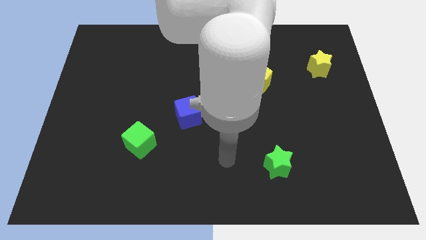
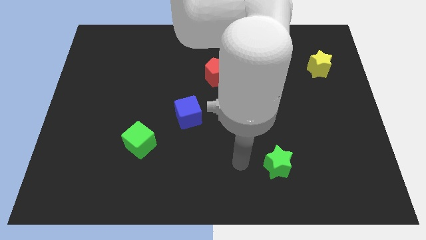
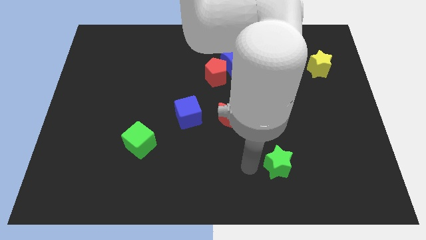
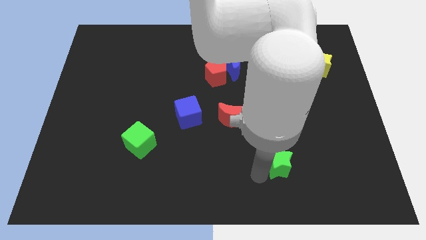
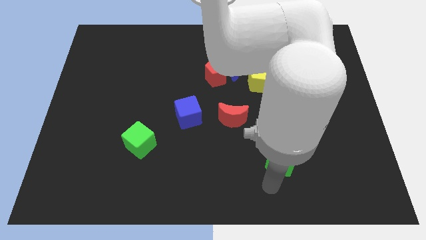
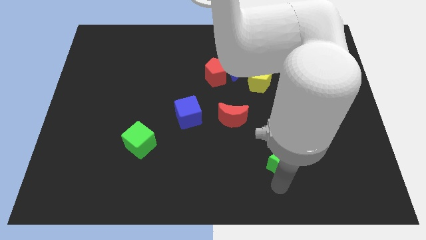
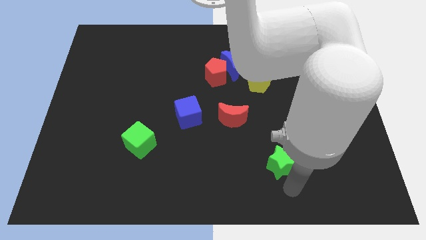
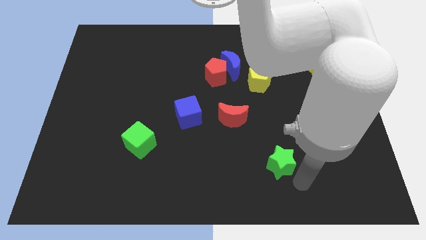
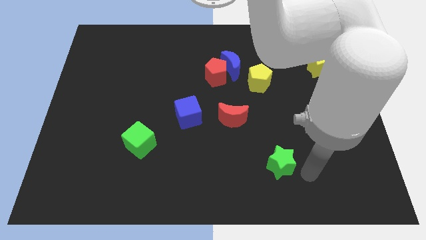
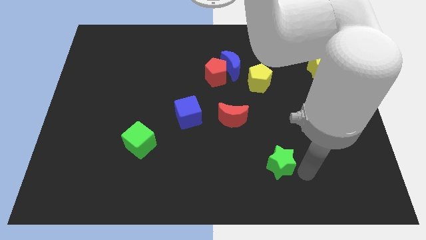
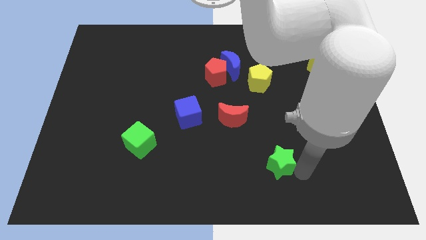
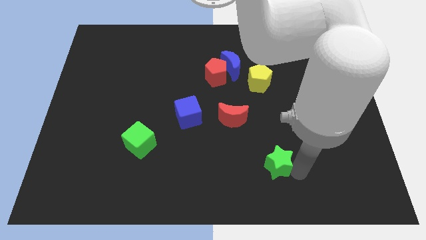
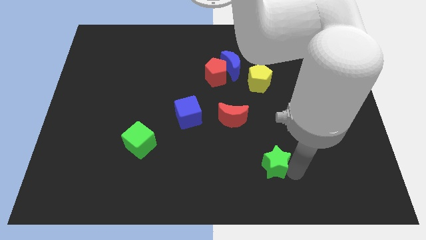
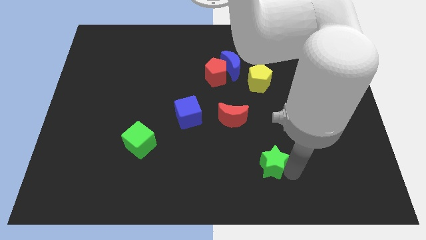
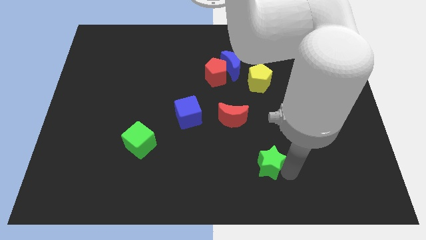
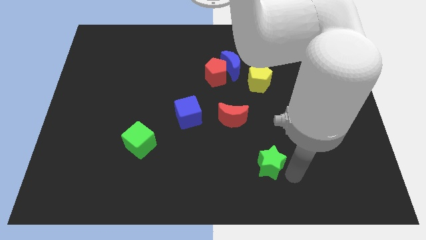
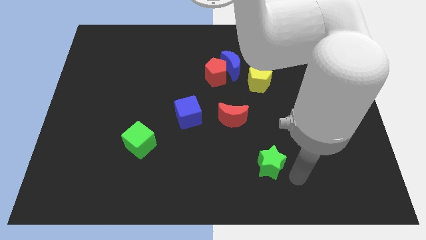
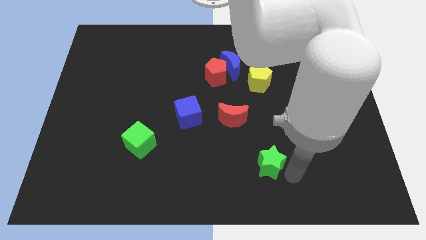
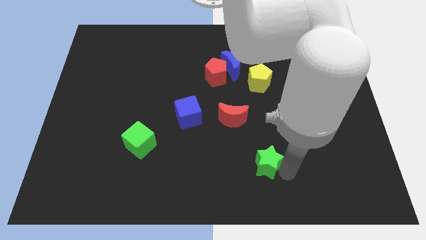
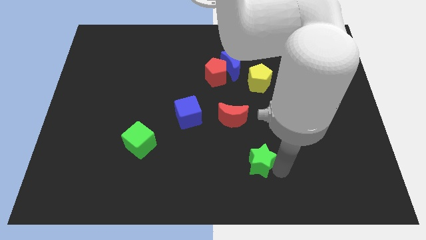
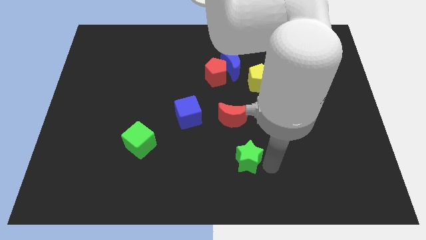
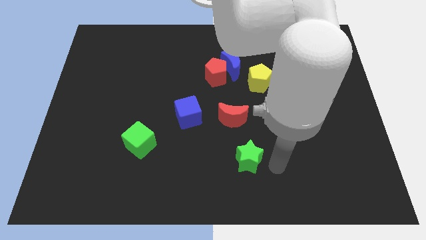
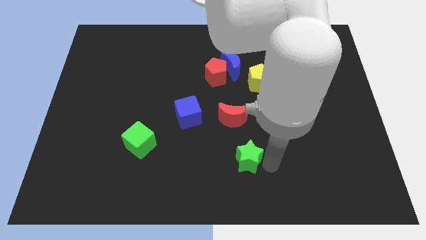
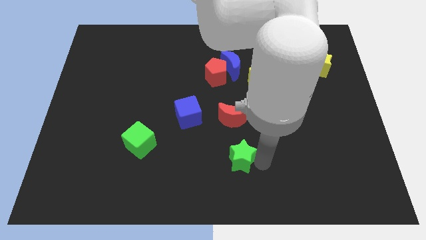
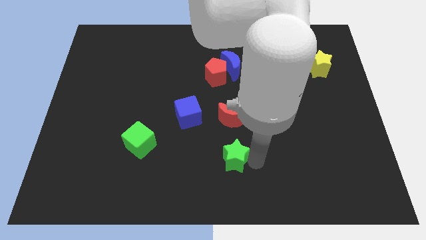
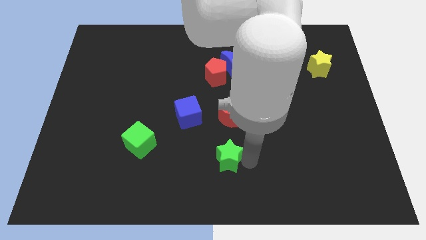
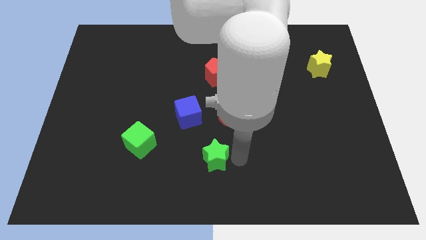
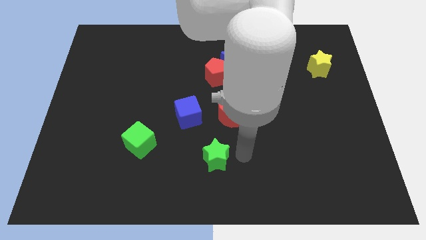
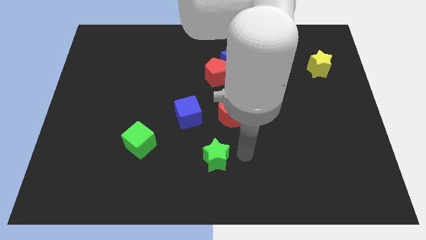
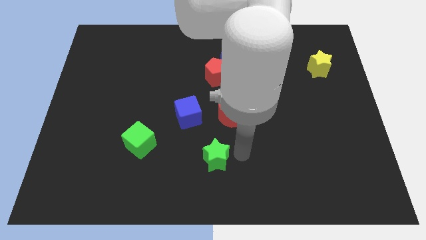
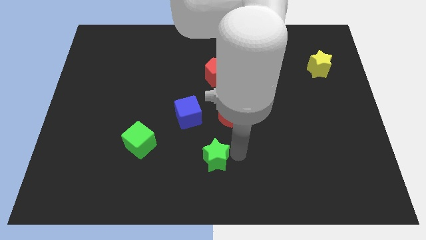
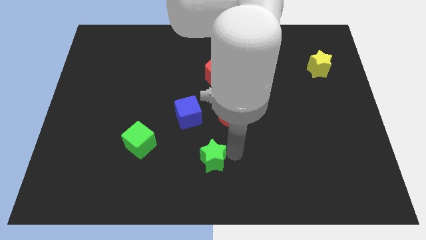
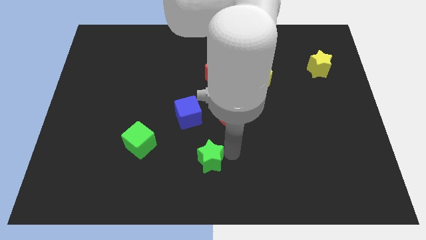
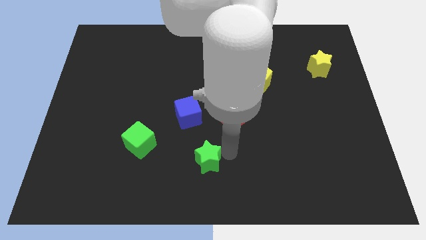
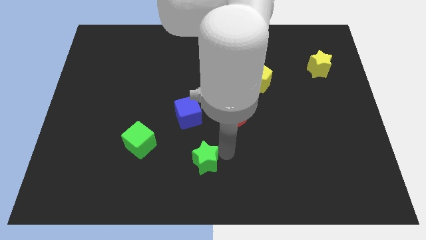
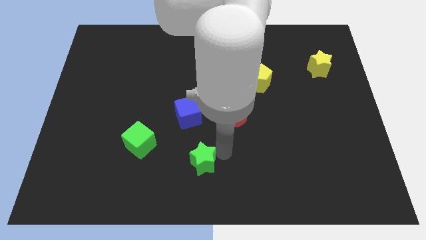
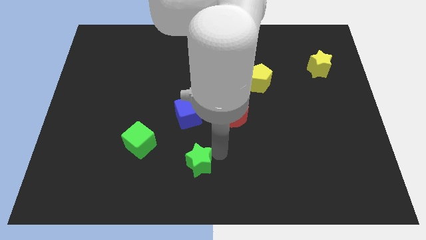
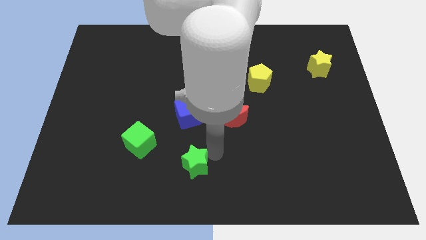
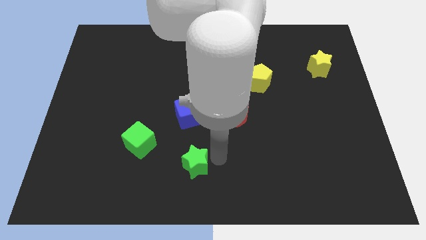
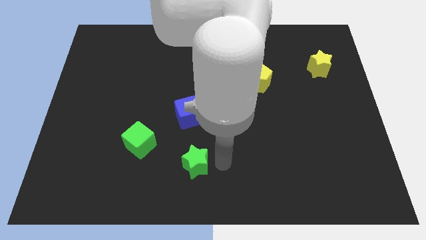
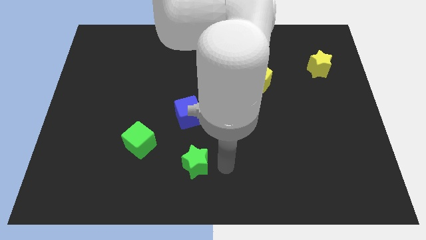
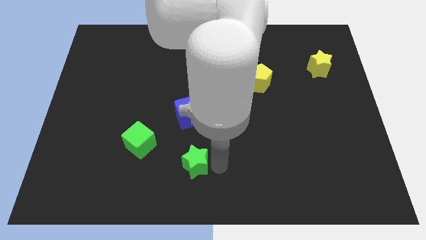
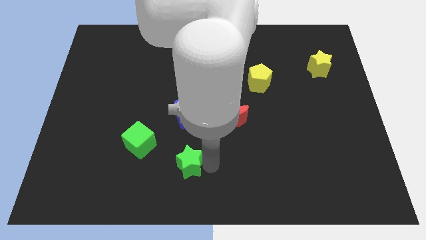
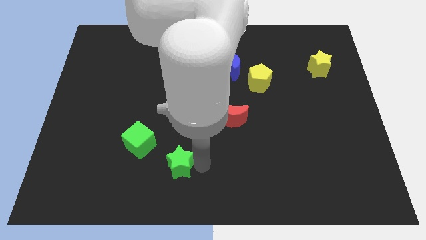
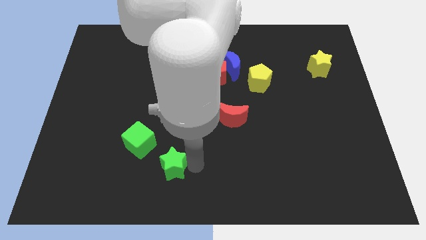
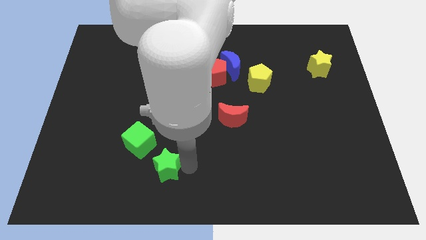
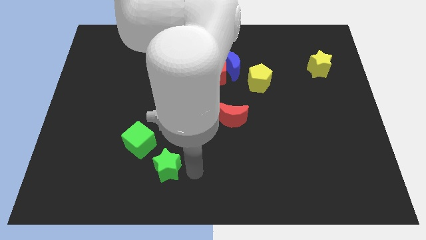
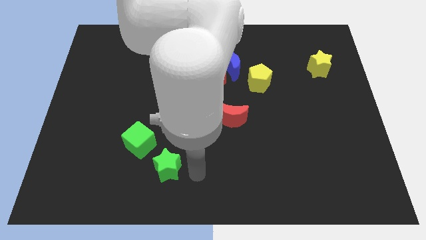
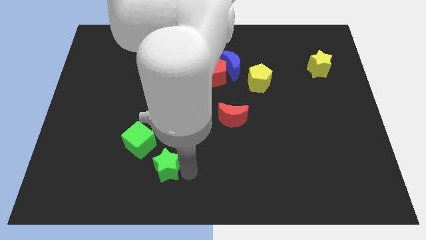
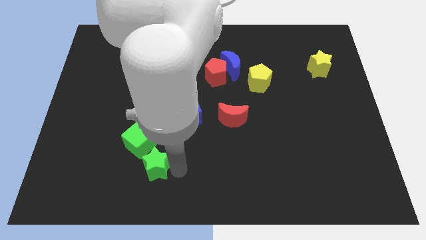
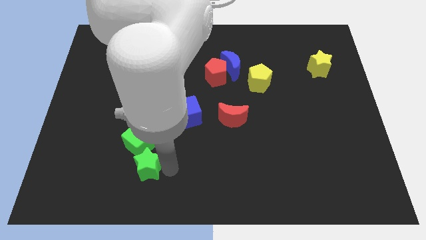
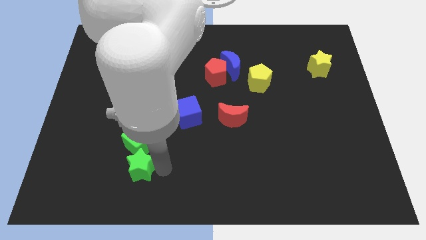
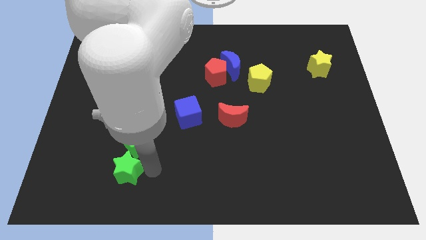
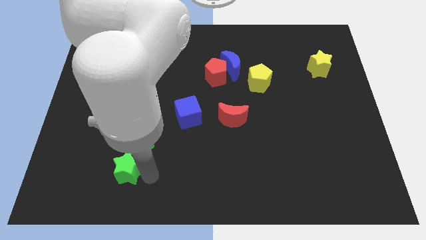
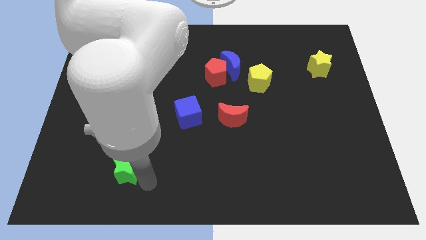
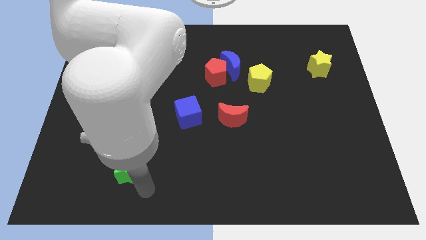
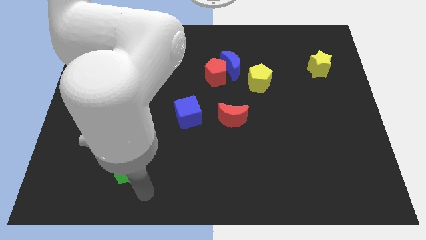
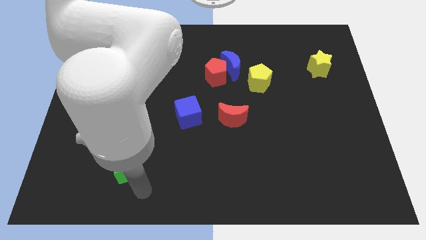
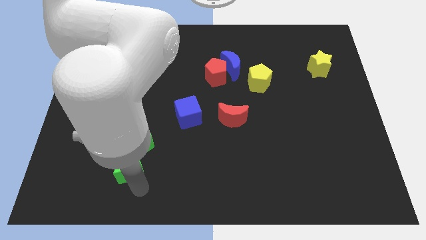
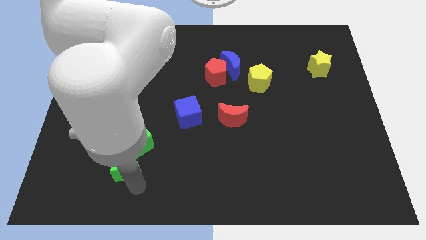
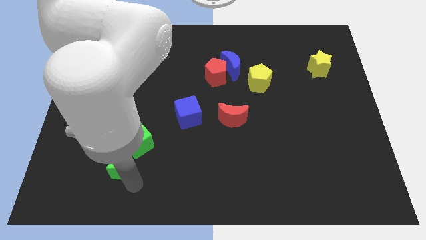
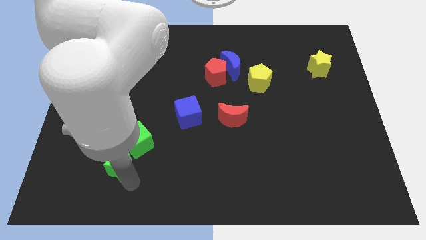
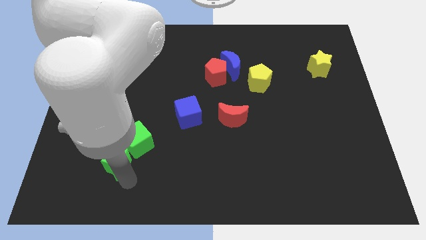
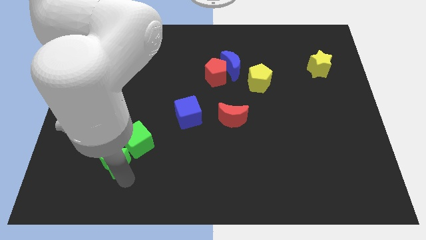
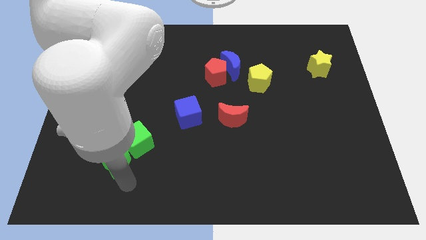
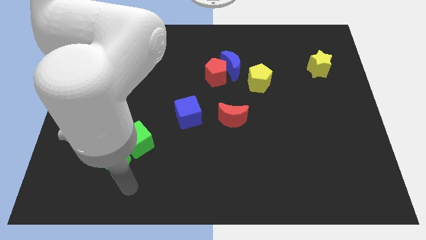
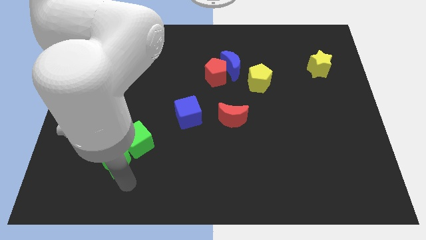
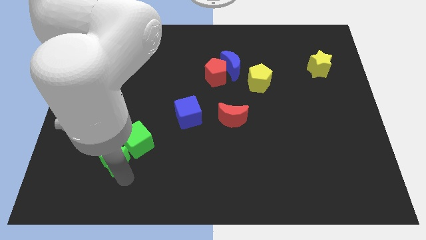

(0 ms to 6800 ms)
put the green star to the left of the green cube

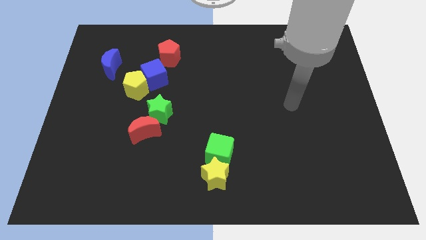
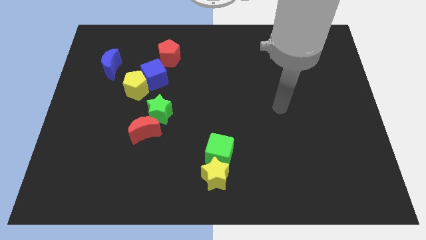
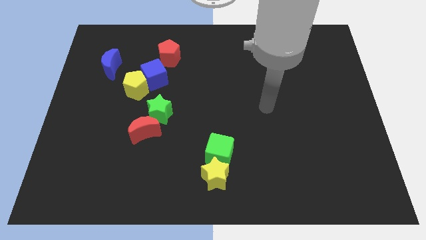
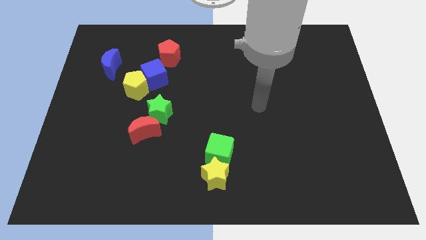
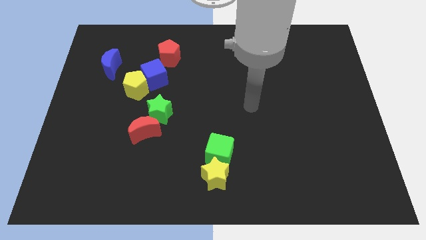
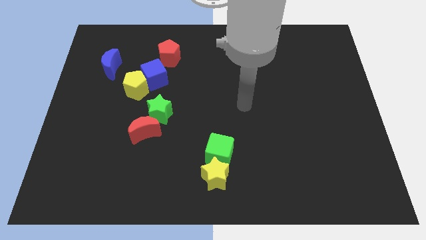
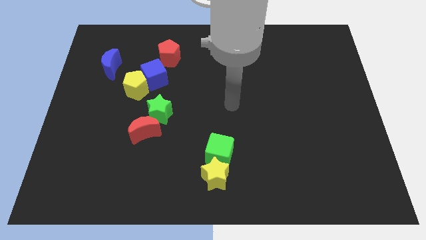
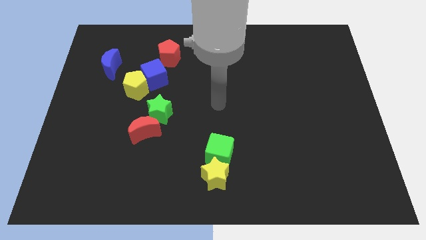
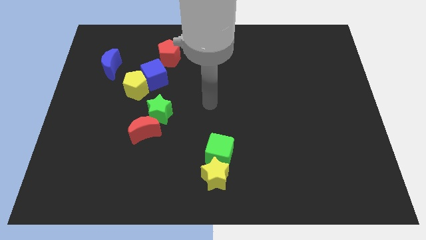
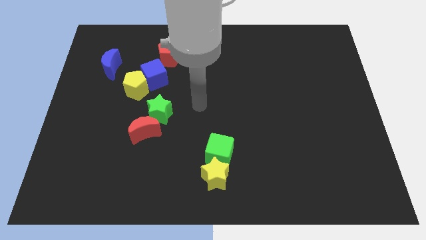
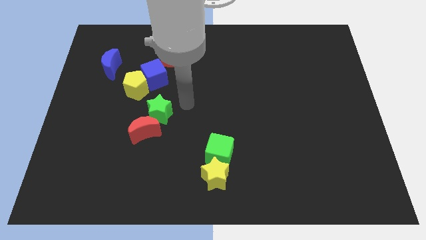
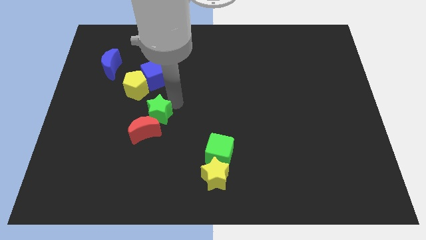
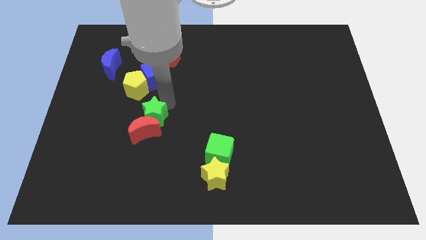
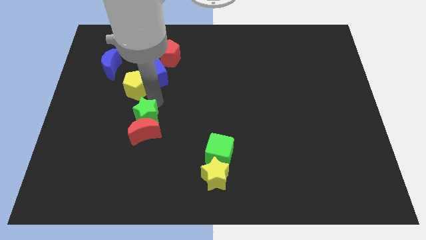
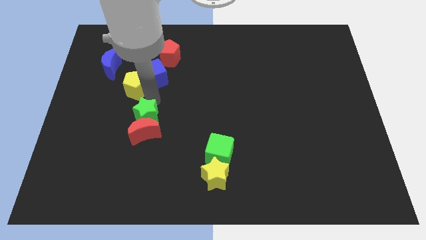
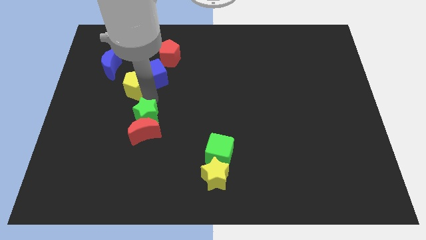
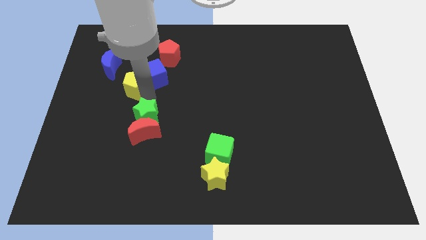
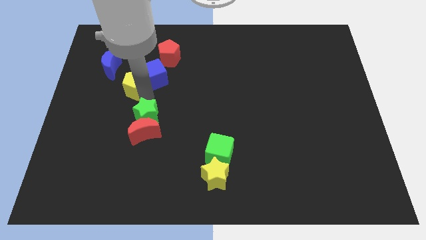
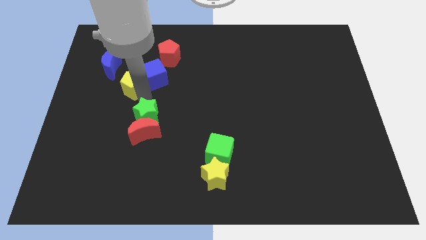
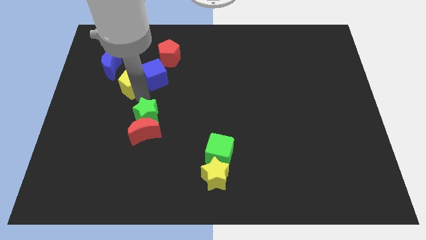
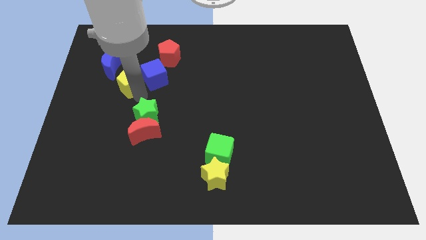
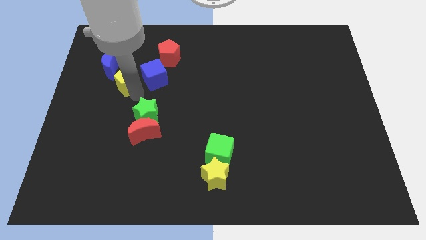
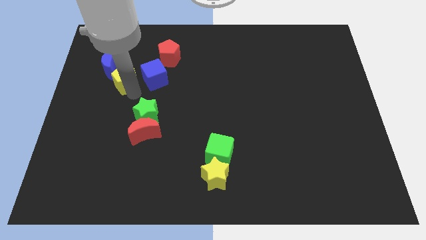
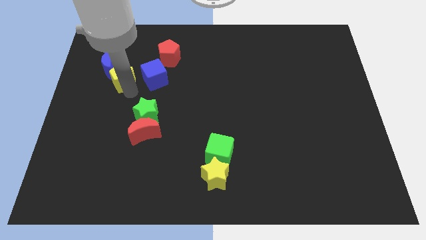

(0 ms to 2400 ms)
move the yellow pentagon to the right of the blue moon
